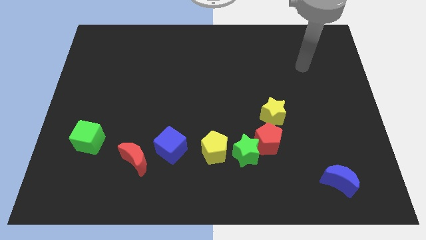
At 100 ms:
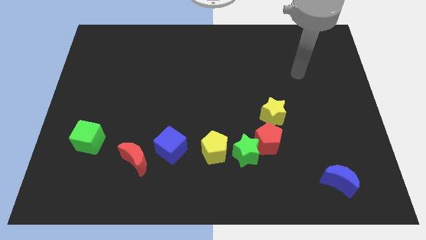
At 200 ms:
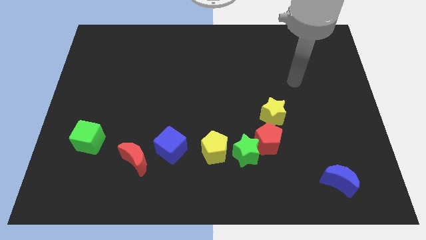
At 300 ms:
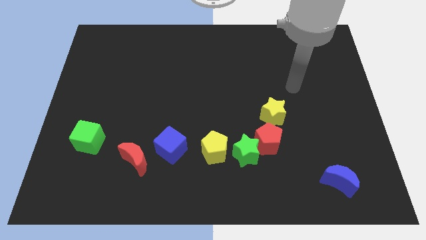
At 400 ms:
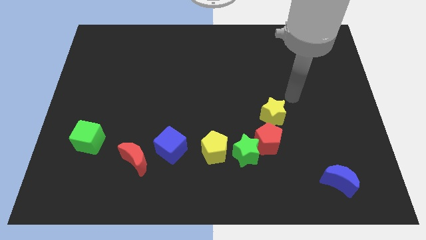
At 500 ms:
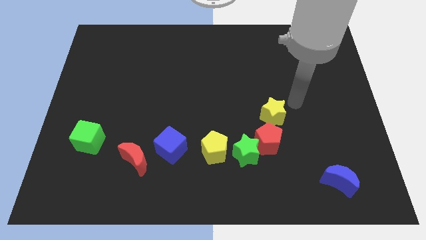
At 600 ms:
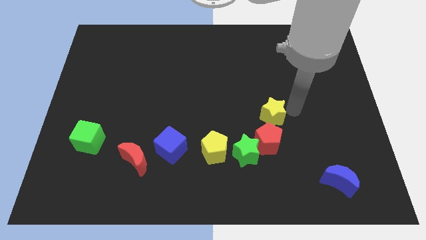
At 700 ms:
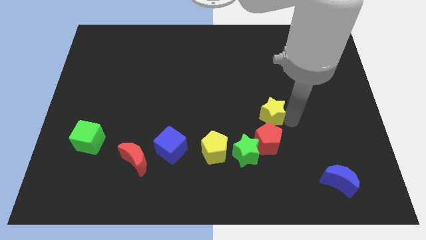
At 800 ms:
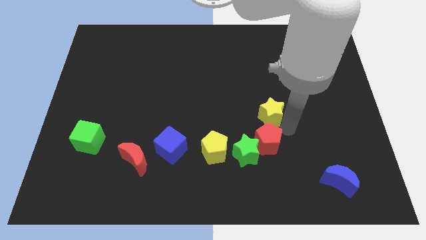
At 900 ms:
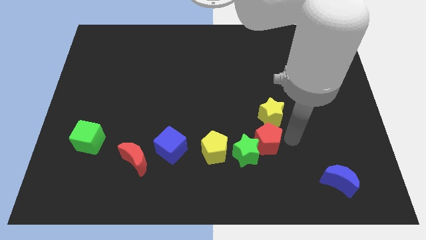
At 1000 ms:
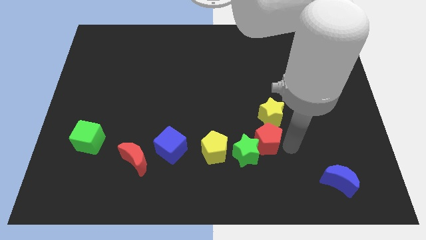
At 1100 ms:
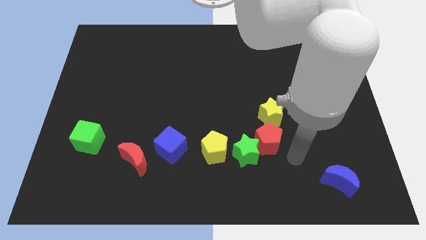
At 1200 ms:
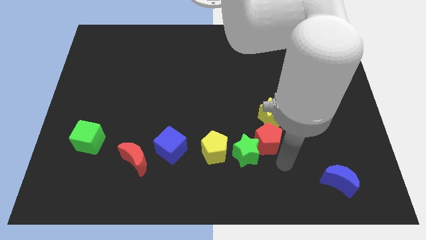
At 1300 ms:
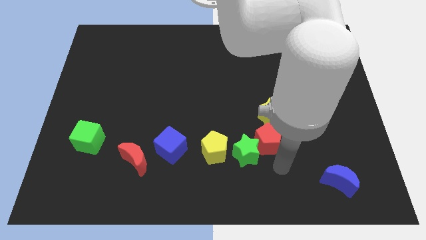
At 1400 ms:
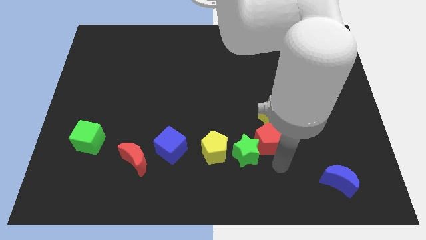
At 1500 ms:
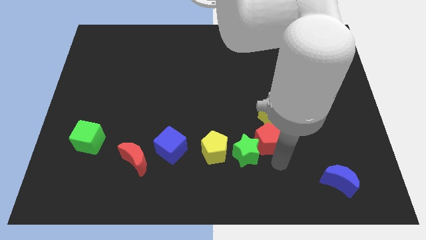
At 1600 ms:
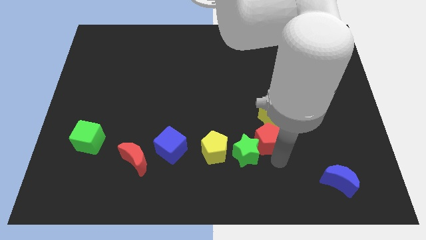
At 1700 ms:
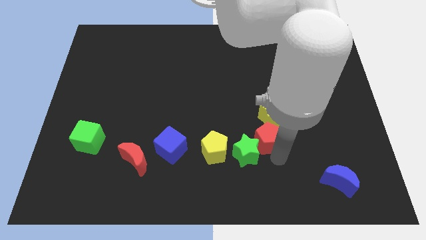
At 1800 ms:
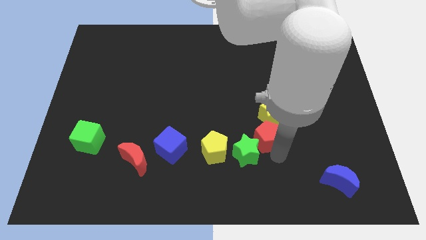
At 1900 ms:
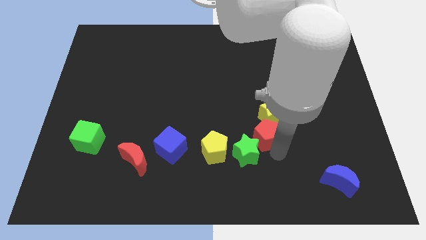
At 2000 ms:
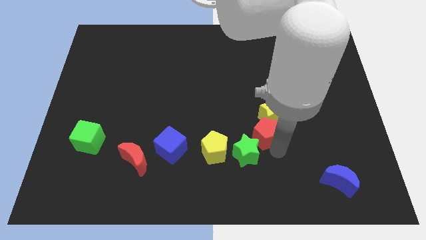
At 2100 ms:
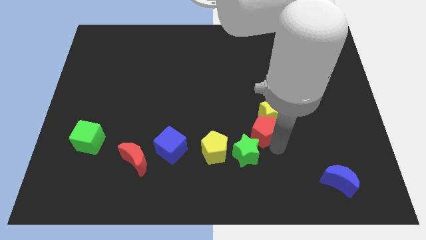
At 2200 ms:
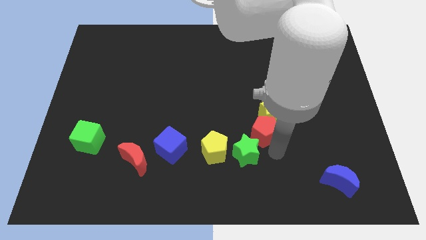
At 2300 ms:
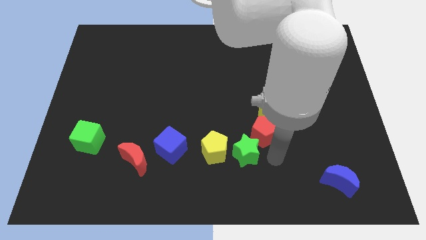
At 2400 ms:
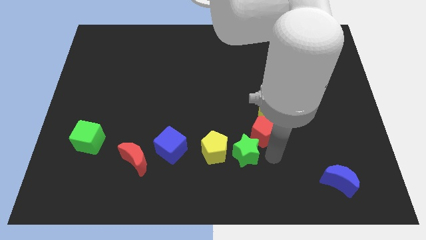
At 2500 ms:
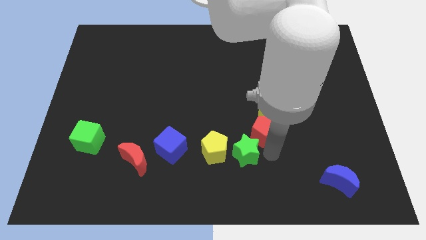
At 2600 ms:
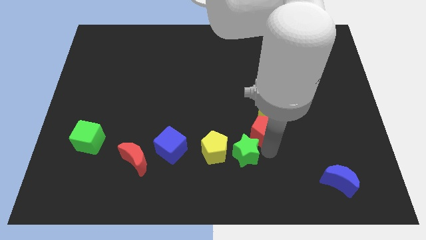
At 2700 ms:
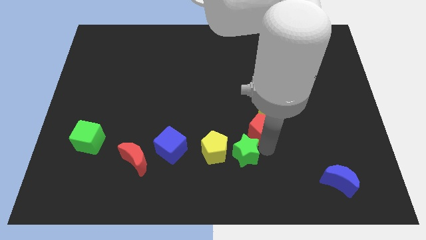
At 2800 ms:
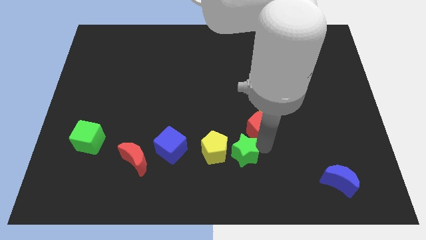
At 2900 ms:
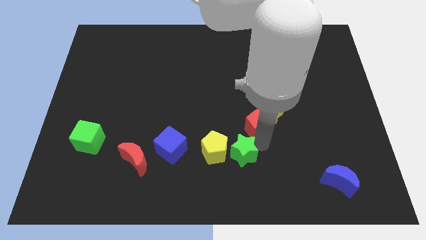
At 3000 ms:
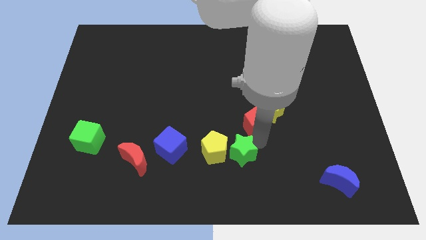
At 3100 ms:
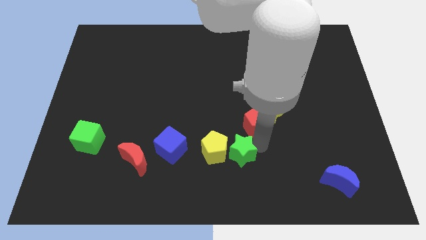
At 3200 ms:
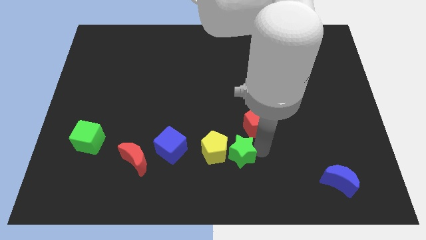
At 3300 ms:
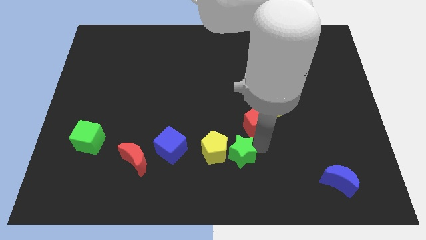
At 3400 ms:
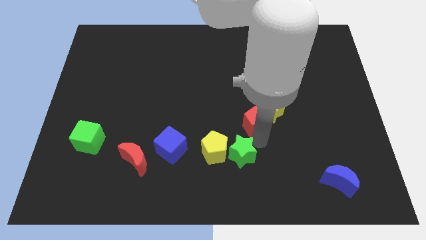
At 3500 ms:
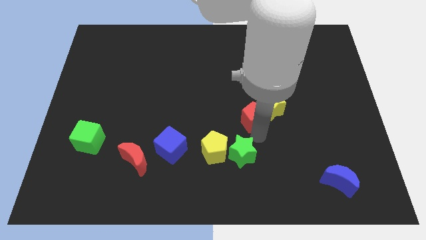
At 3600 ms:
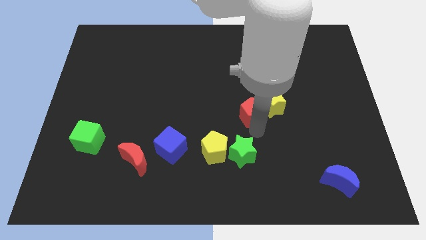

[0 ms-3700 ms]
push the red pentagon a bit upwards

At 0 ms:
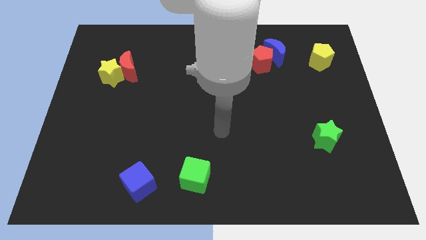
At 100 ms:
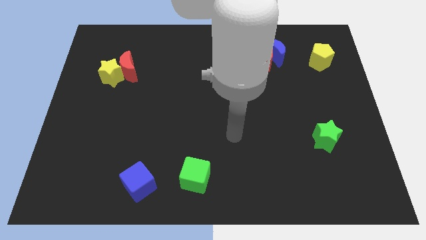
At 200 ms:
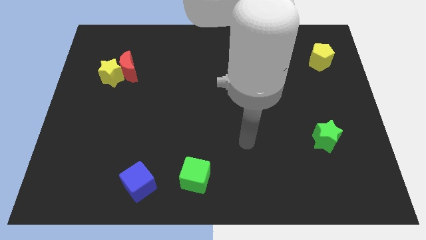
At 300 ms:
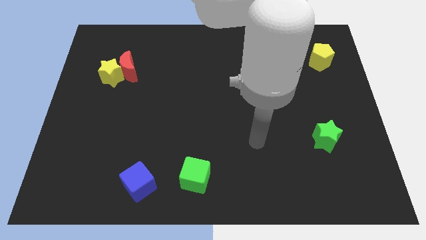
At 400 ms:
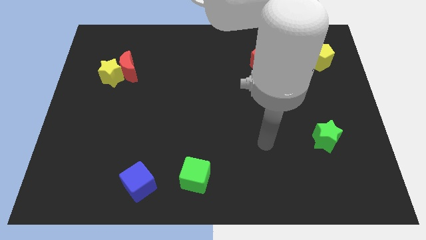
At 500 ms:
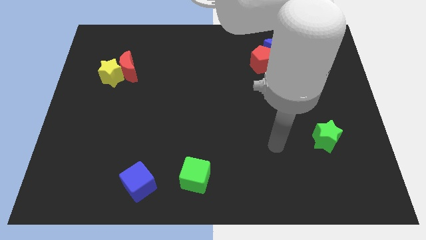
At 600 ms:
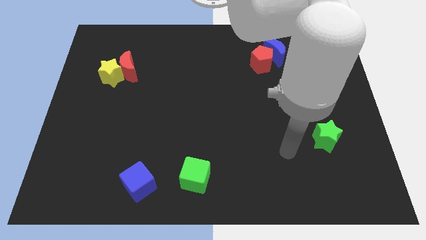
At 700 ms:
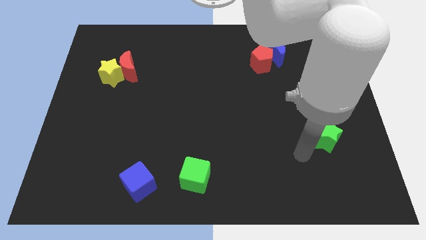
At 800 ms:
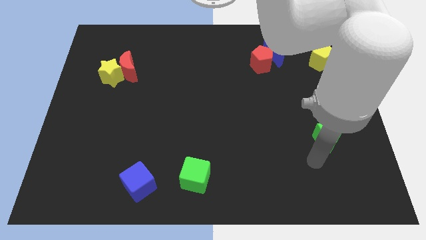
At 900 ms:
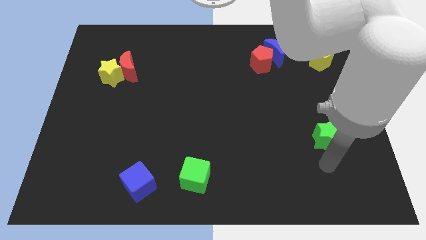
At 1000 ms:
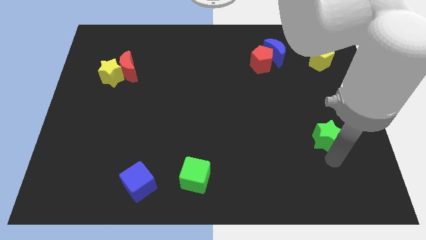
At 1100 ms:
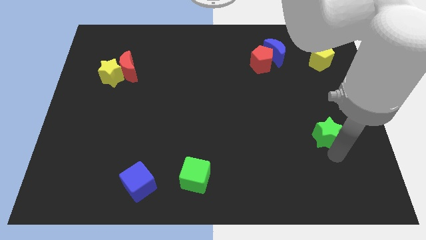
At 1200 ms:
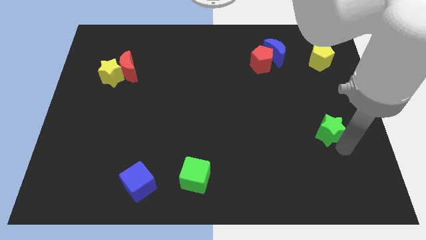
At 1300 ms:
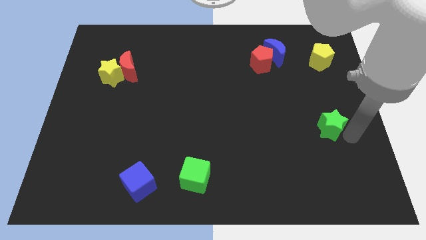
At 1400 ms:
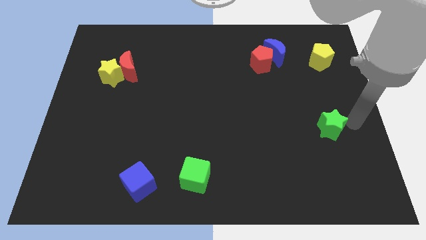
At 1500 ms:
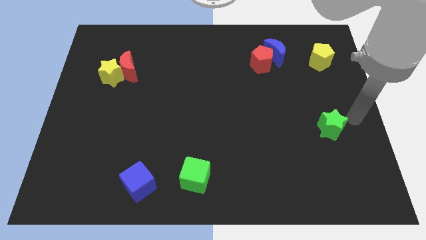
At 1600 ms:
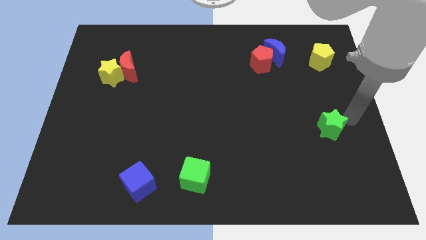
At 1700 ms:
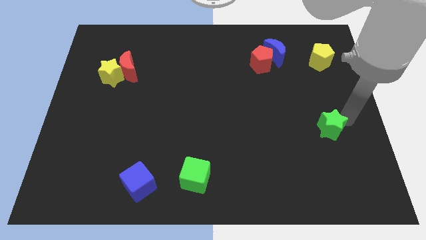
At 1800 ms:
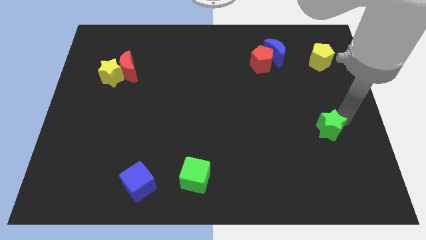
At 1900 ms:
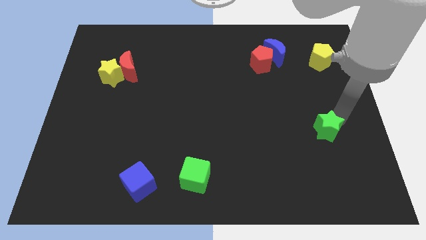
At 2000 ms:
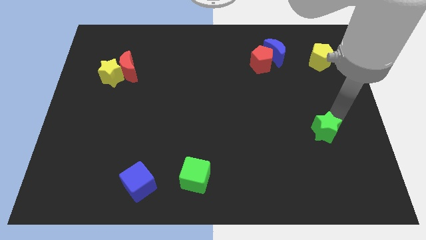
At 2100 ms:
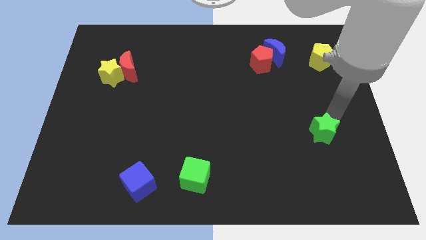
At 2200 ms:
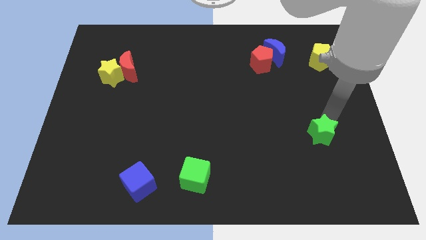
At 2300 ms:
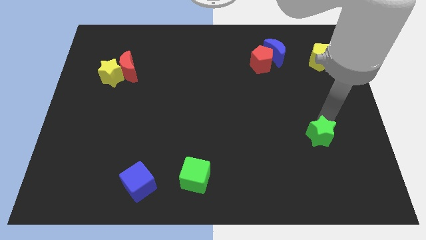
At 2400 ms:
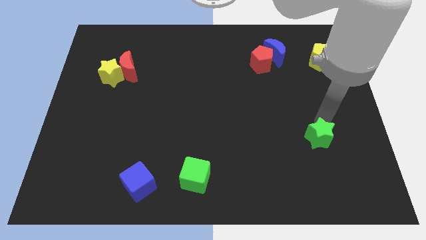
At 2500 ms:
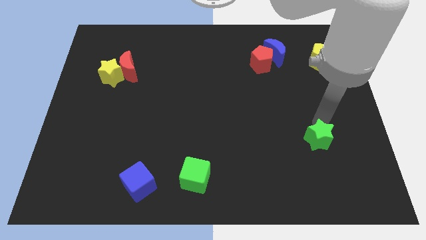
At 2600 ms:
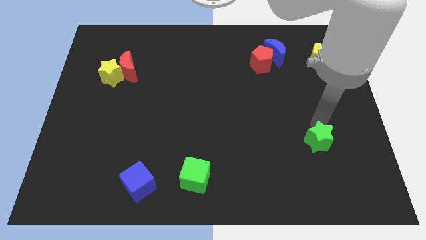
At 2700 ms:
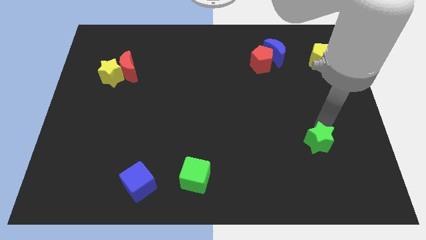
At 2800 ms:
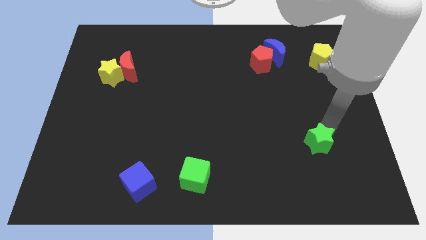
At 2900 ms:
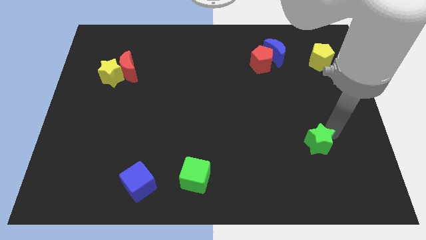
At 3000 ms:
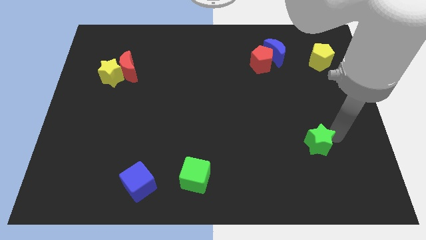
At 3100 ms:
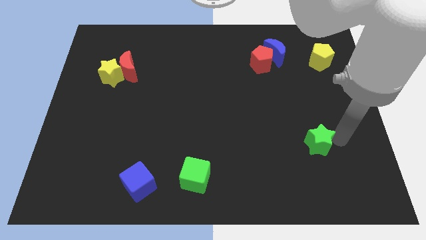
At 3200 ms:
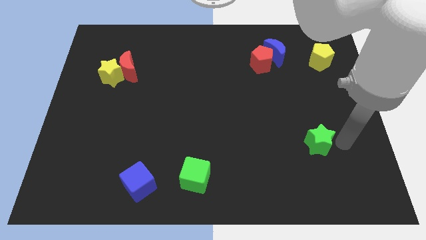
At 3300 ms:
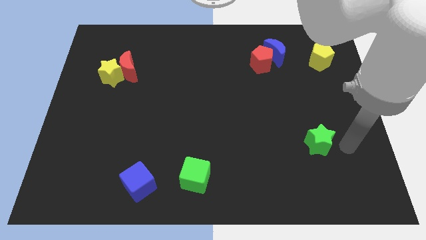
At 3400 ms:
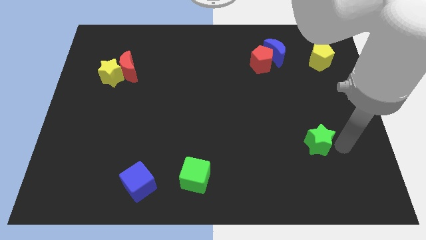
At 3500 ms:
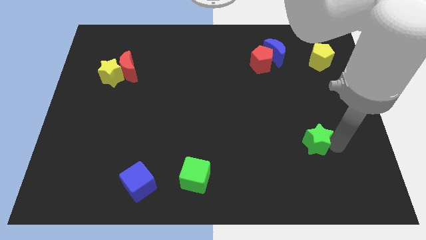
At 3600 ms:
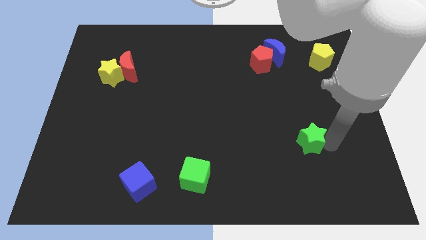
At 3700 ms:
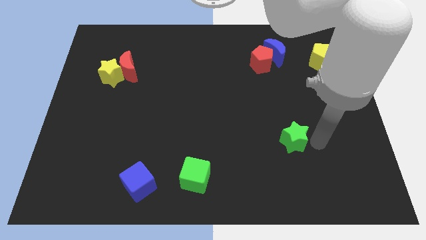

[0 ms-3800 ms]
push the green star left slightly

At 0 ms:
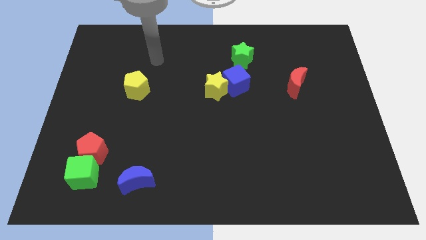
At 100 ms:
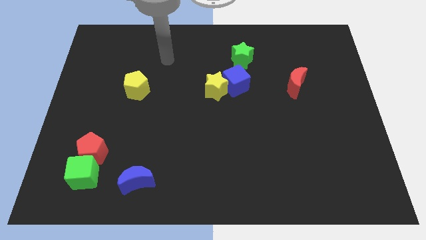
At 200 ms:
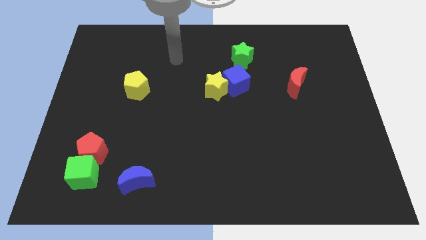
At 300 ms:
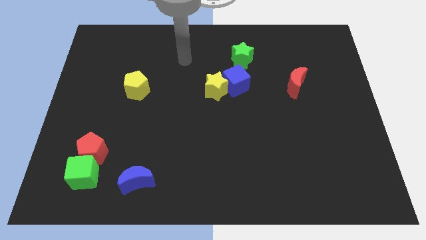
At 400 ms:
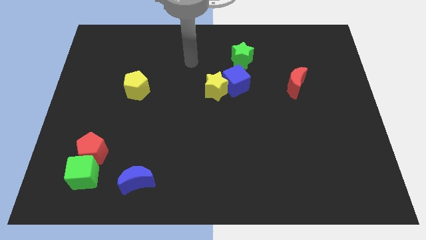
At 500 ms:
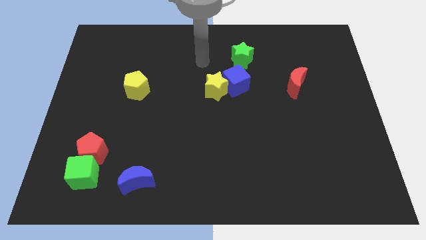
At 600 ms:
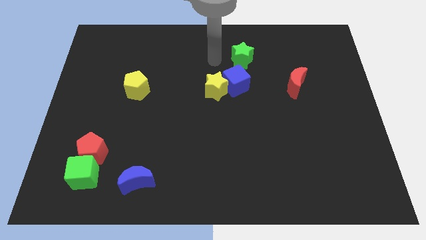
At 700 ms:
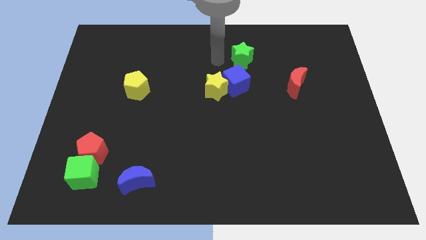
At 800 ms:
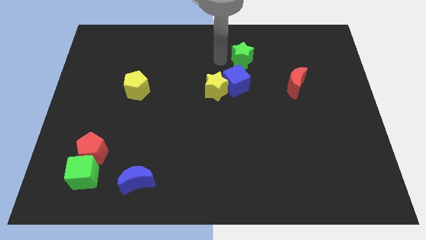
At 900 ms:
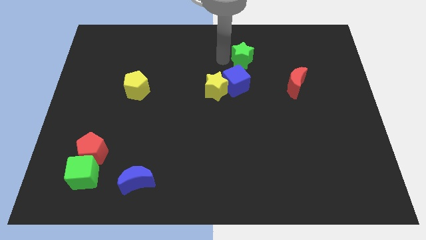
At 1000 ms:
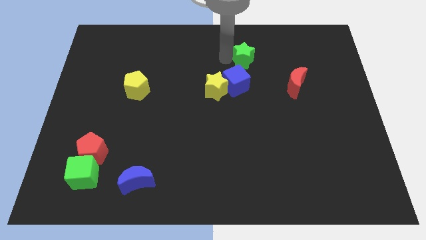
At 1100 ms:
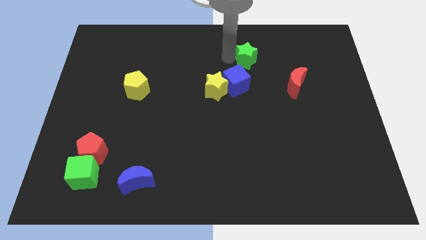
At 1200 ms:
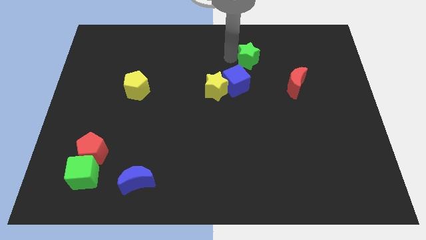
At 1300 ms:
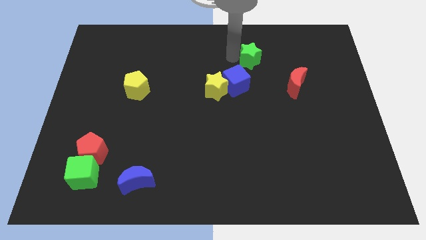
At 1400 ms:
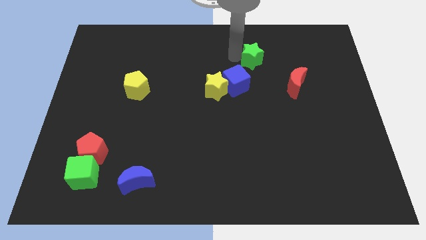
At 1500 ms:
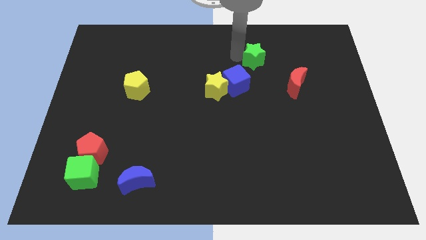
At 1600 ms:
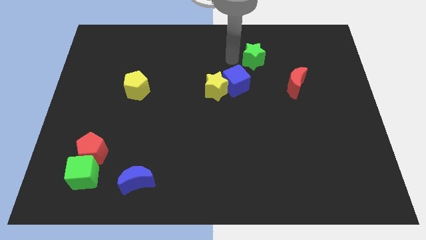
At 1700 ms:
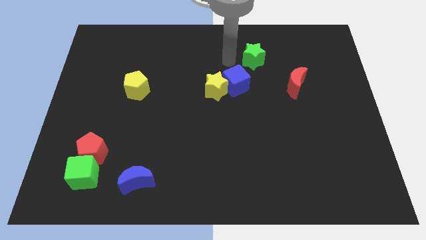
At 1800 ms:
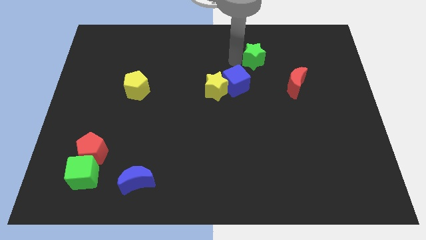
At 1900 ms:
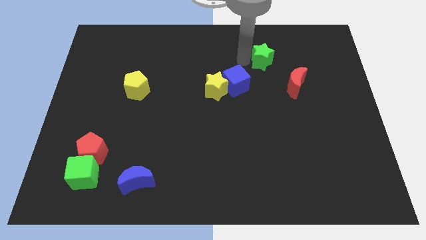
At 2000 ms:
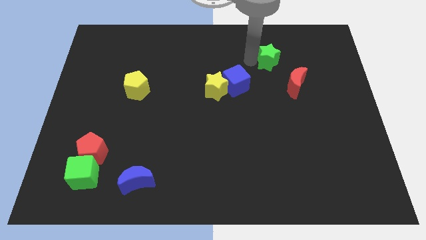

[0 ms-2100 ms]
slide the green star right a bit
